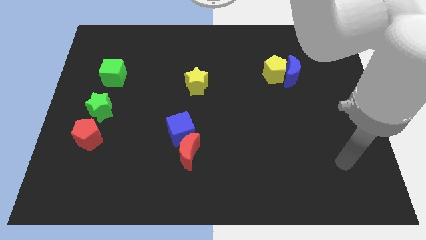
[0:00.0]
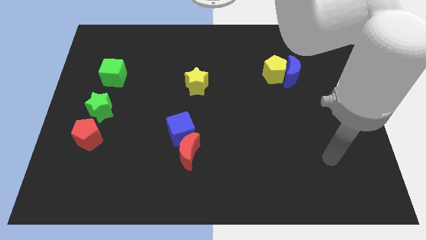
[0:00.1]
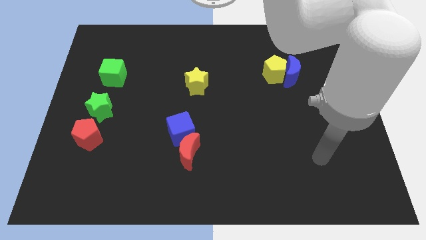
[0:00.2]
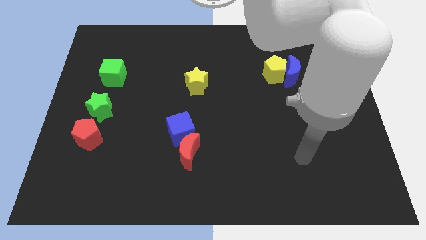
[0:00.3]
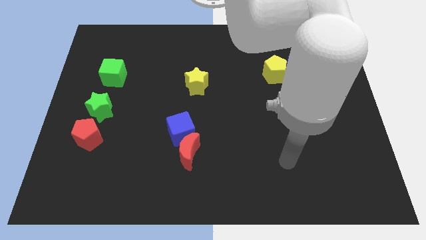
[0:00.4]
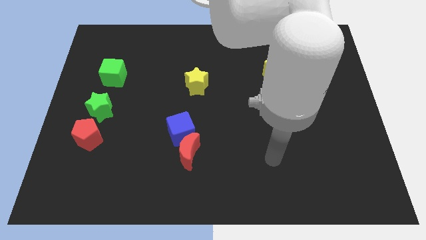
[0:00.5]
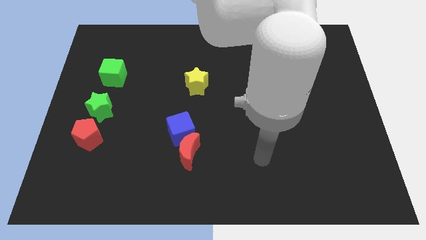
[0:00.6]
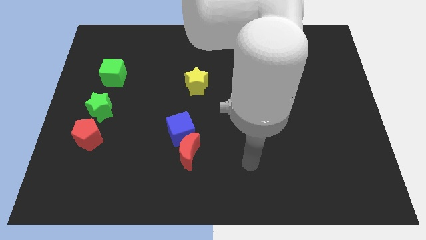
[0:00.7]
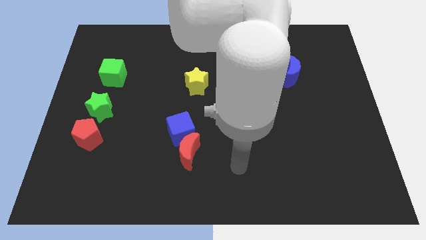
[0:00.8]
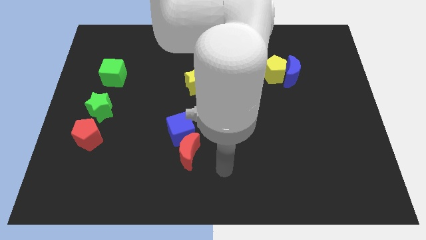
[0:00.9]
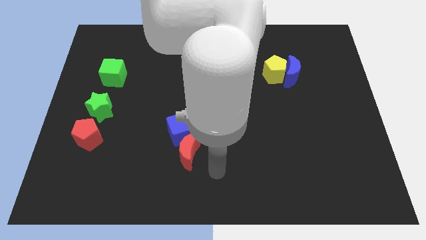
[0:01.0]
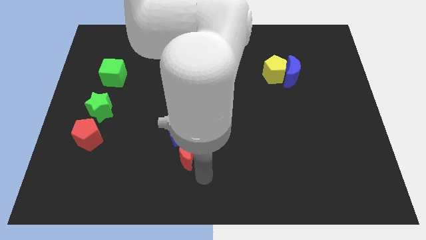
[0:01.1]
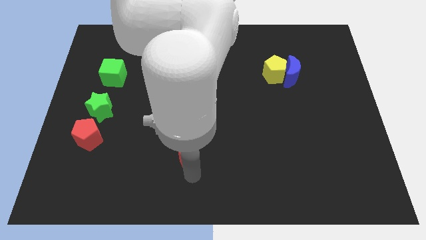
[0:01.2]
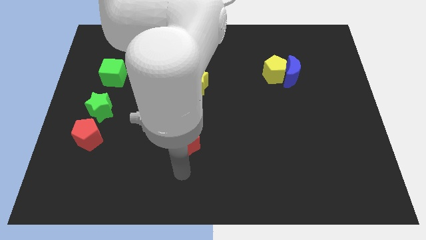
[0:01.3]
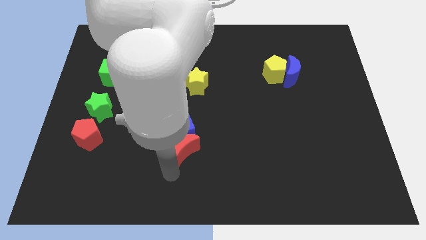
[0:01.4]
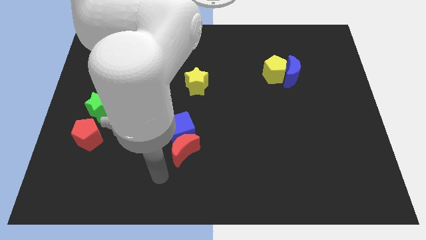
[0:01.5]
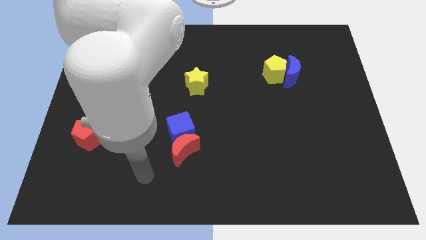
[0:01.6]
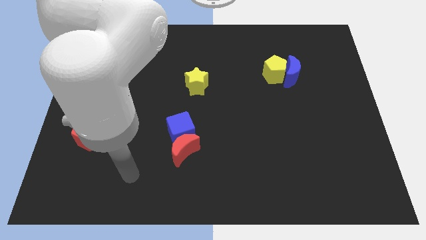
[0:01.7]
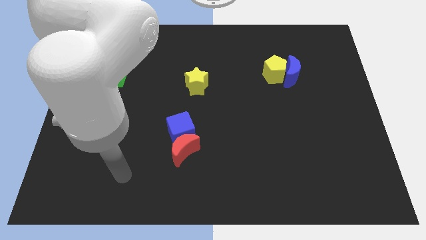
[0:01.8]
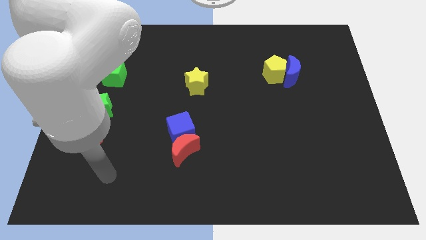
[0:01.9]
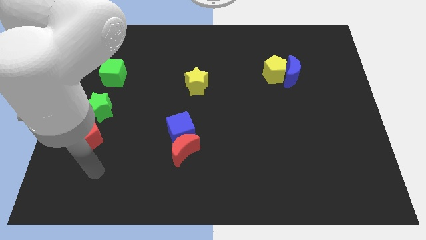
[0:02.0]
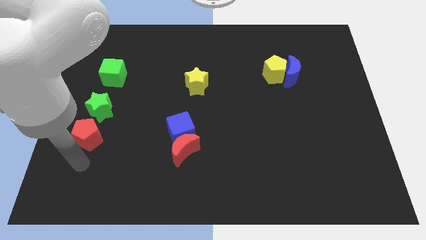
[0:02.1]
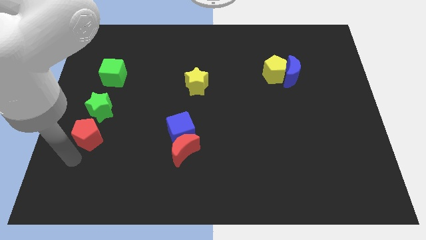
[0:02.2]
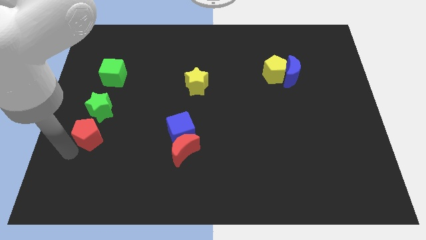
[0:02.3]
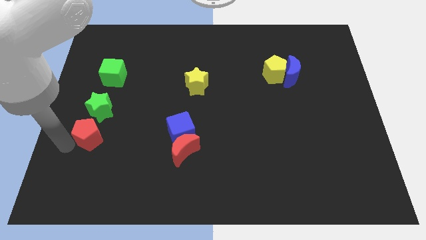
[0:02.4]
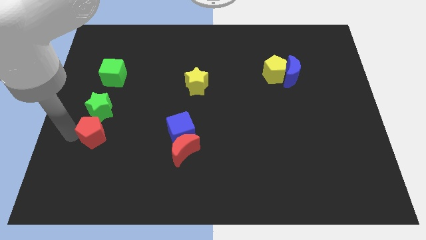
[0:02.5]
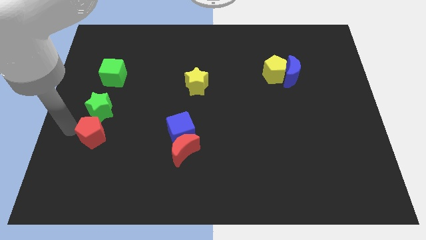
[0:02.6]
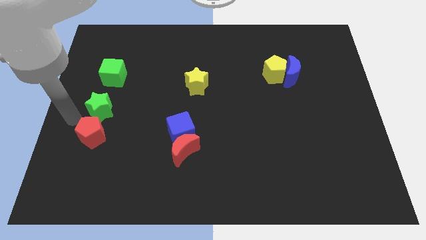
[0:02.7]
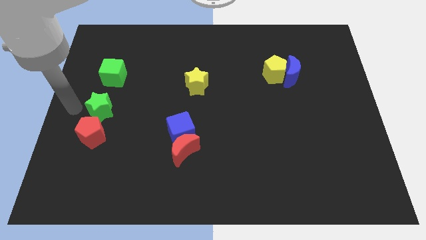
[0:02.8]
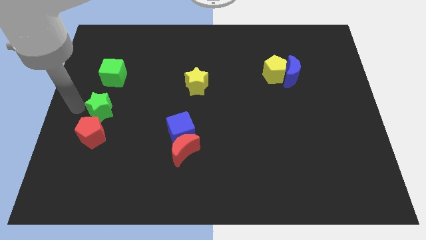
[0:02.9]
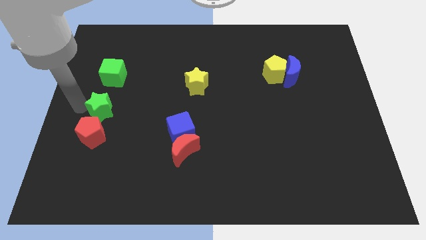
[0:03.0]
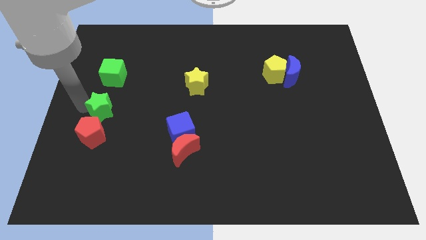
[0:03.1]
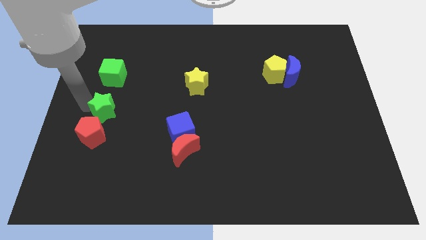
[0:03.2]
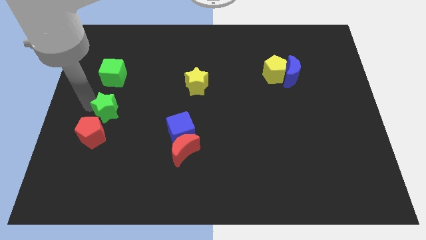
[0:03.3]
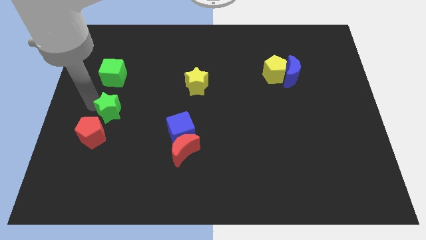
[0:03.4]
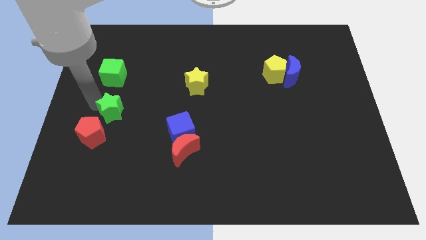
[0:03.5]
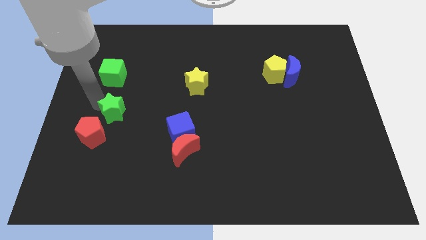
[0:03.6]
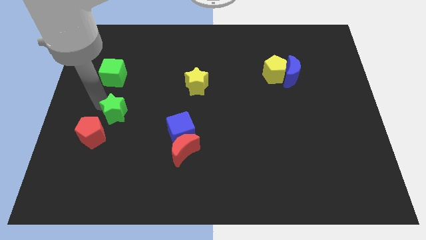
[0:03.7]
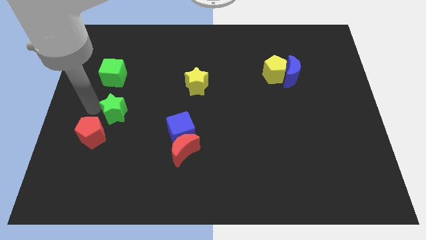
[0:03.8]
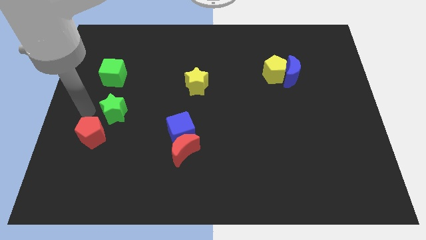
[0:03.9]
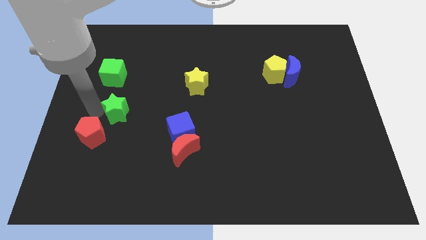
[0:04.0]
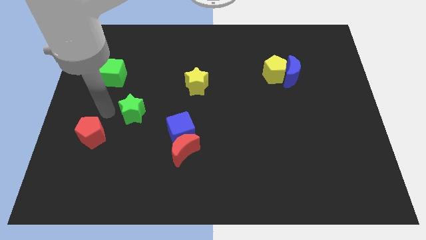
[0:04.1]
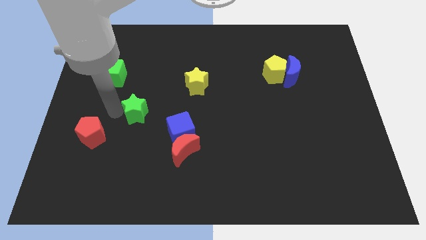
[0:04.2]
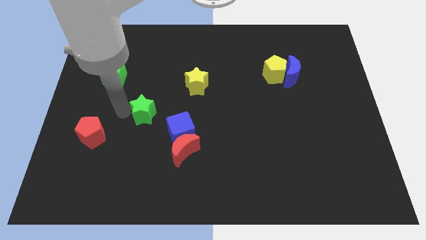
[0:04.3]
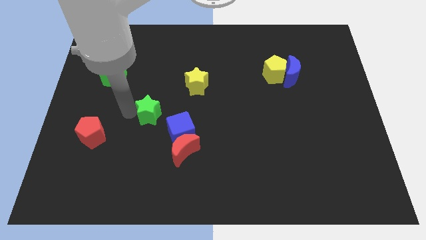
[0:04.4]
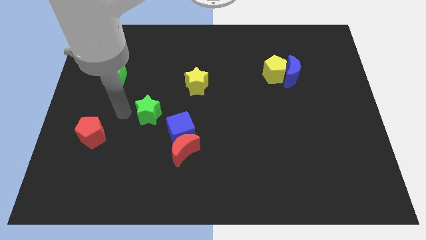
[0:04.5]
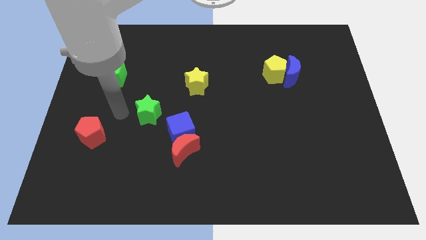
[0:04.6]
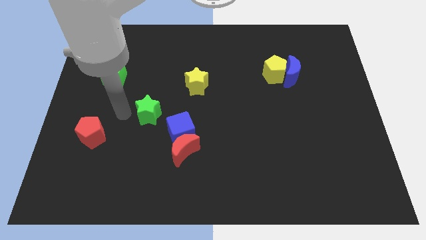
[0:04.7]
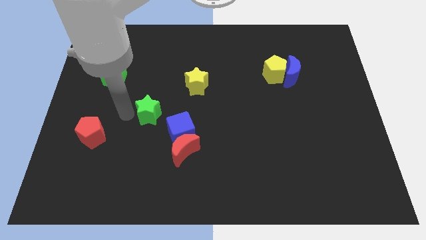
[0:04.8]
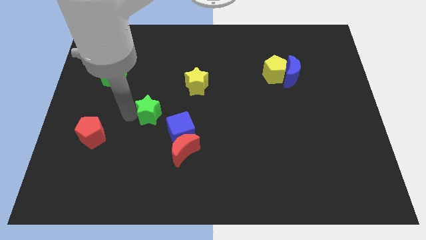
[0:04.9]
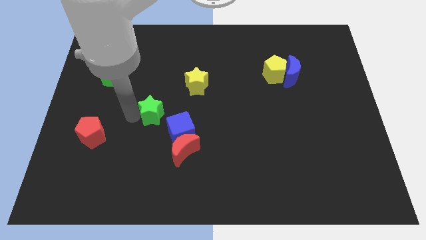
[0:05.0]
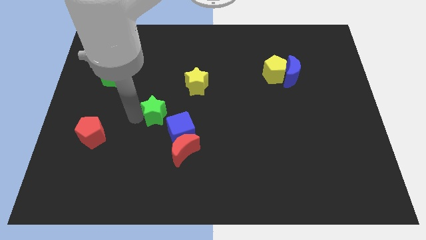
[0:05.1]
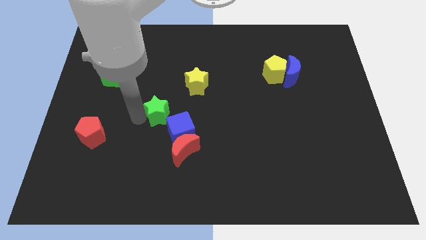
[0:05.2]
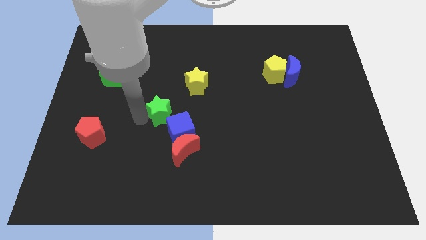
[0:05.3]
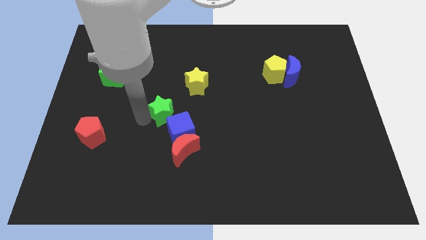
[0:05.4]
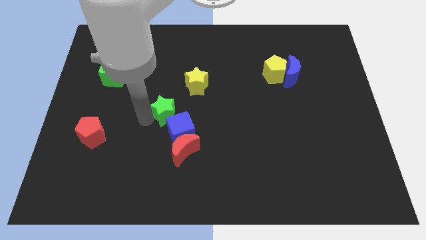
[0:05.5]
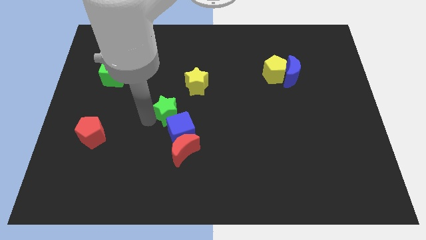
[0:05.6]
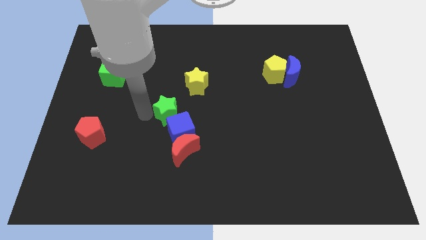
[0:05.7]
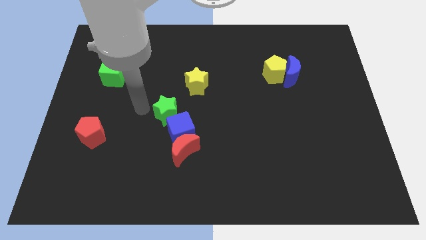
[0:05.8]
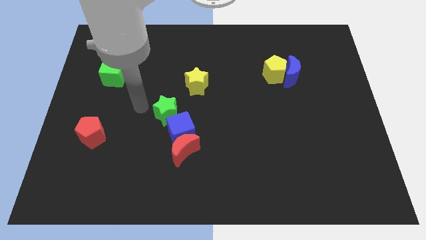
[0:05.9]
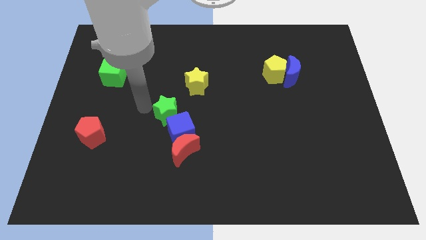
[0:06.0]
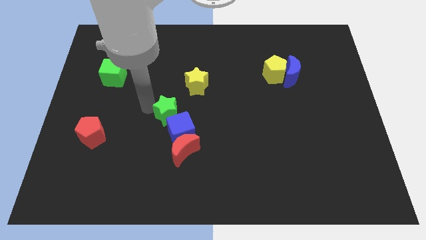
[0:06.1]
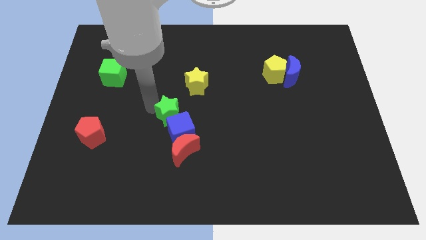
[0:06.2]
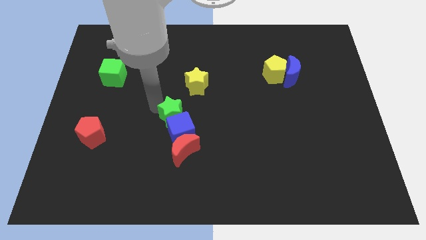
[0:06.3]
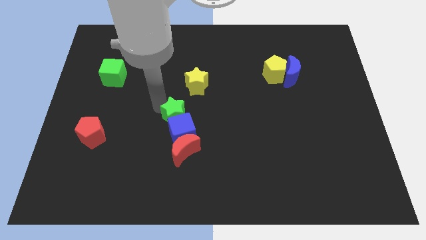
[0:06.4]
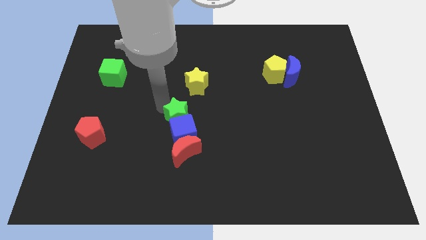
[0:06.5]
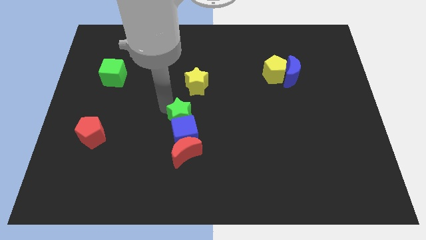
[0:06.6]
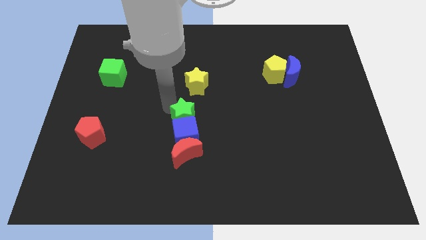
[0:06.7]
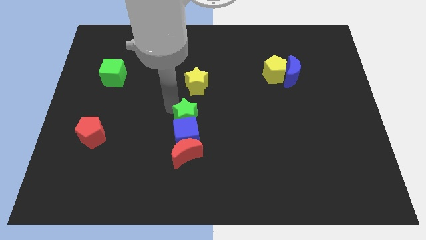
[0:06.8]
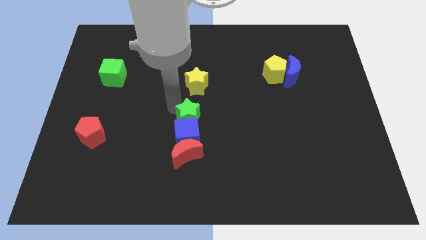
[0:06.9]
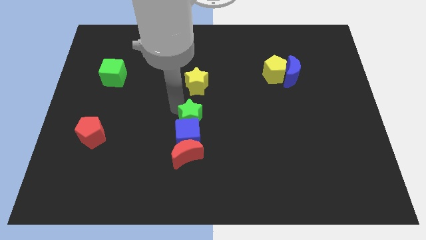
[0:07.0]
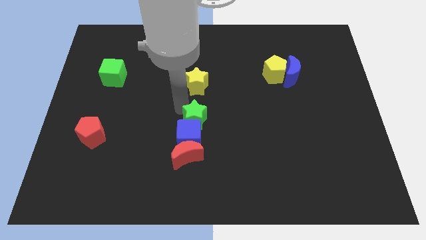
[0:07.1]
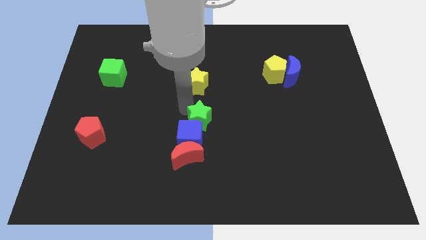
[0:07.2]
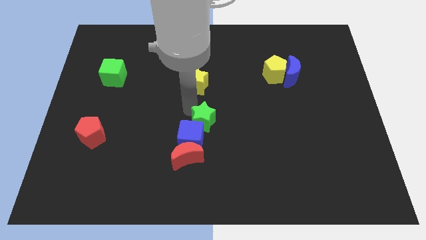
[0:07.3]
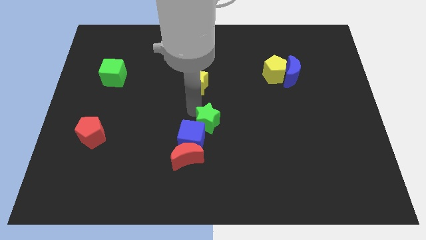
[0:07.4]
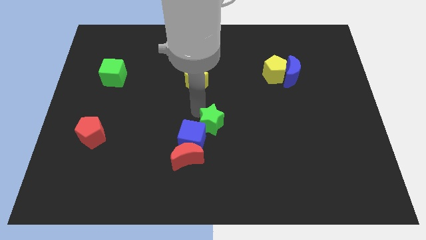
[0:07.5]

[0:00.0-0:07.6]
slide the green star to the right side of the blue cube

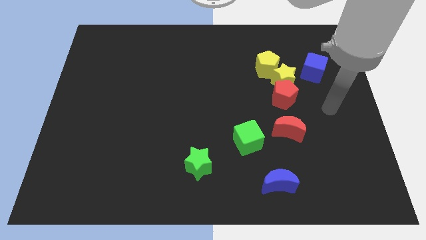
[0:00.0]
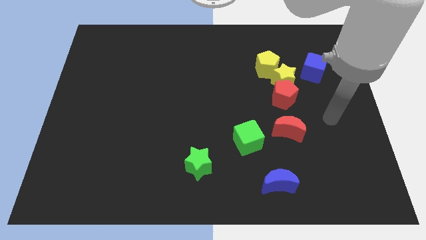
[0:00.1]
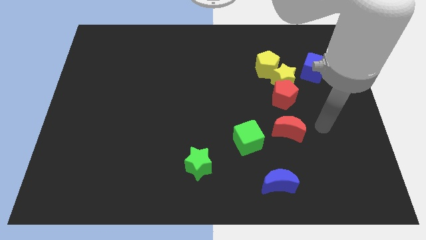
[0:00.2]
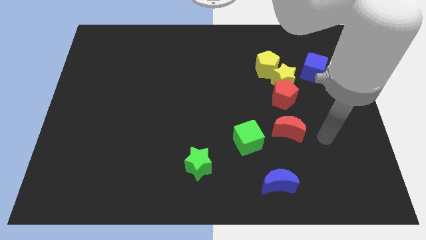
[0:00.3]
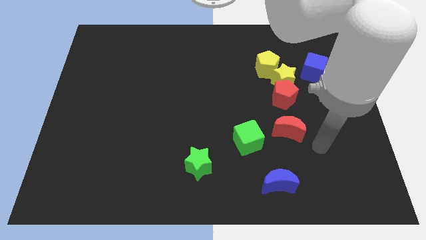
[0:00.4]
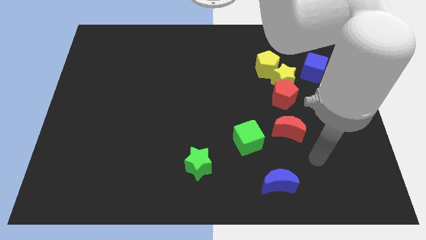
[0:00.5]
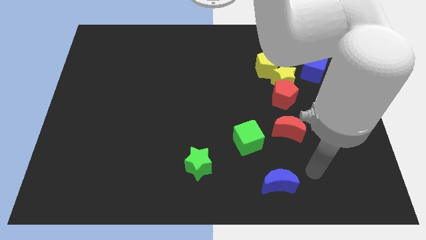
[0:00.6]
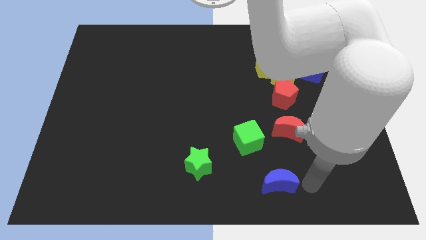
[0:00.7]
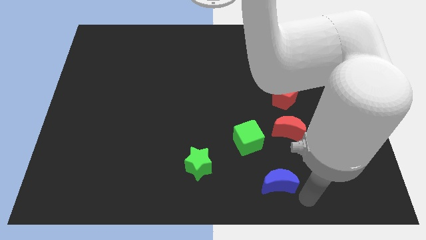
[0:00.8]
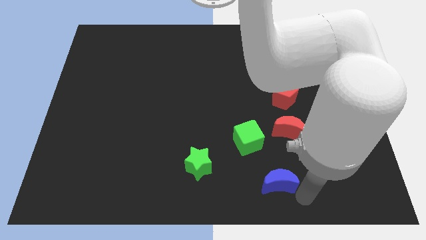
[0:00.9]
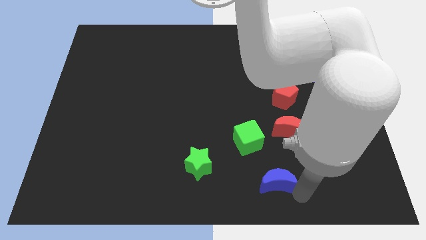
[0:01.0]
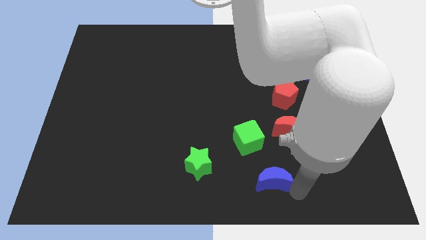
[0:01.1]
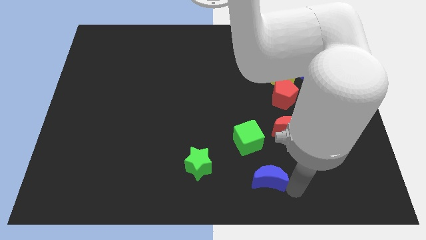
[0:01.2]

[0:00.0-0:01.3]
push the blue moon right of the green star
